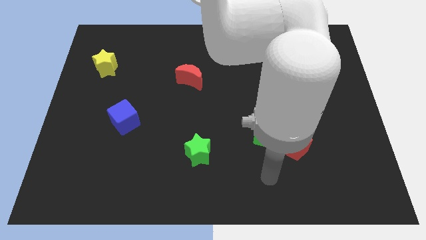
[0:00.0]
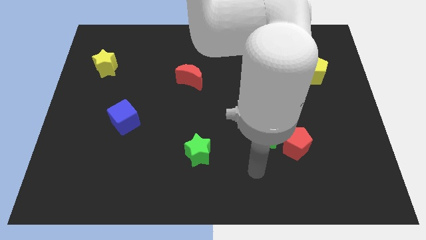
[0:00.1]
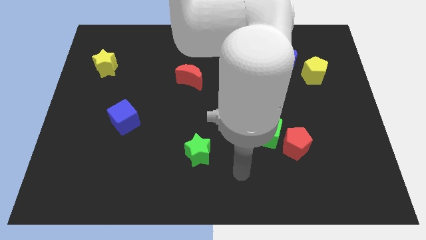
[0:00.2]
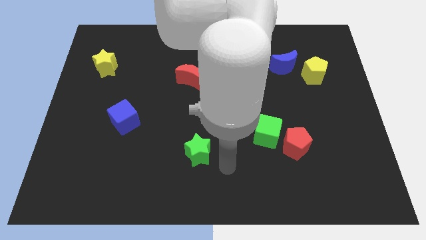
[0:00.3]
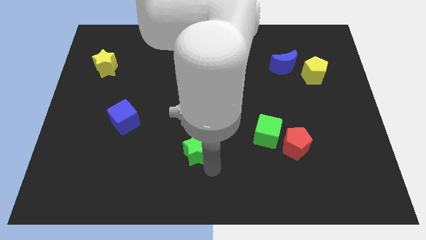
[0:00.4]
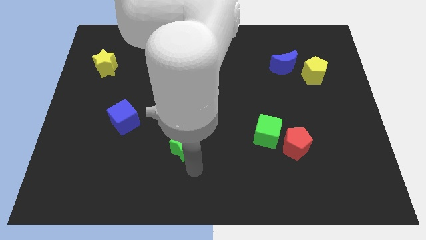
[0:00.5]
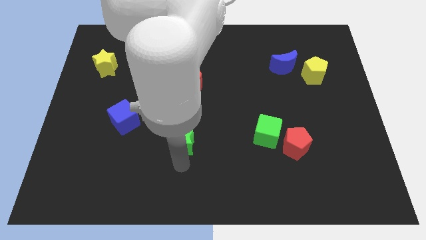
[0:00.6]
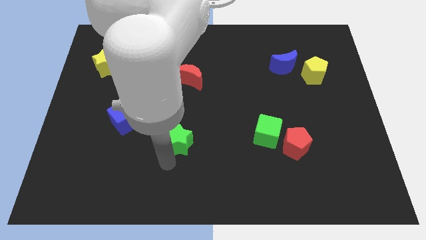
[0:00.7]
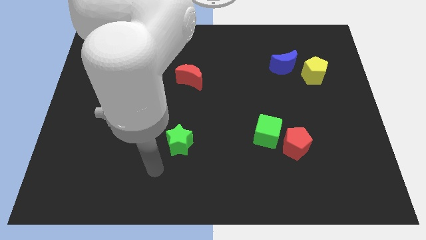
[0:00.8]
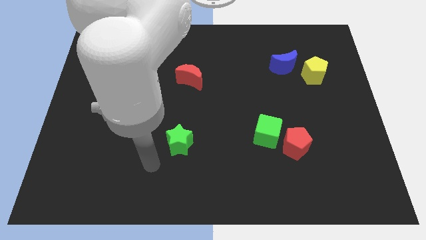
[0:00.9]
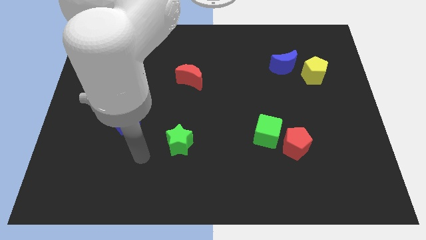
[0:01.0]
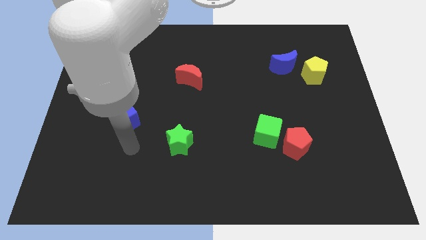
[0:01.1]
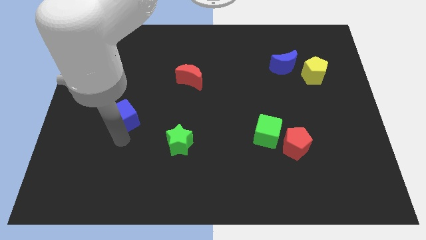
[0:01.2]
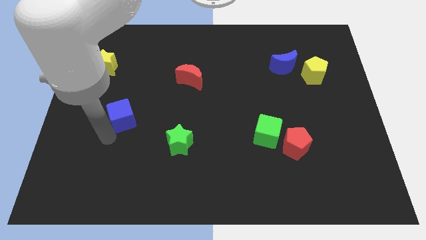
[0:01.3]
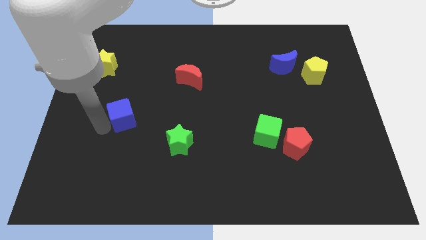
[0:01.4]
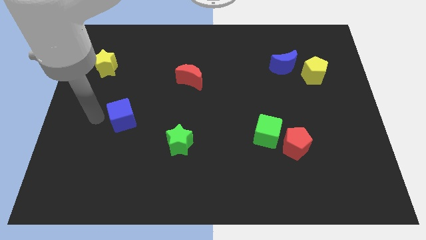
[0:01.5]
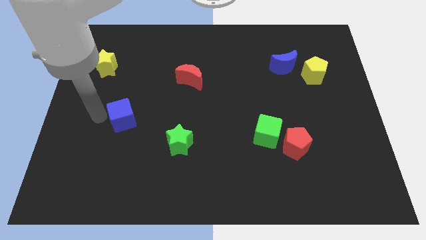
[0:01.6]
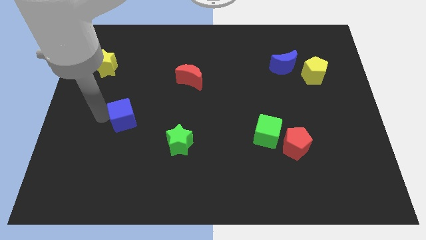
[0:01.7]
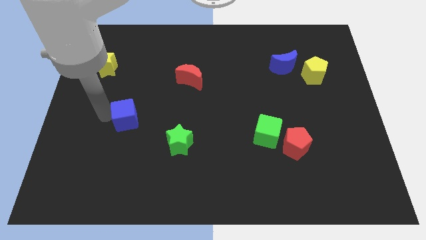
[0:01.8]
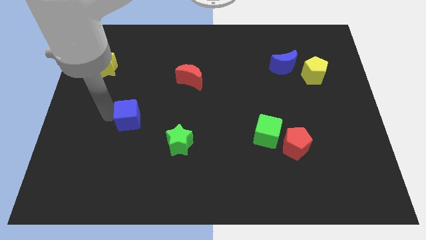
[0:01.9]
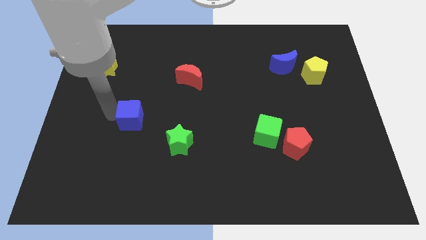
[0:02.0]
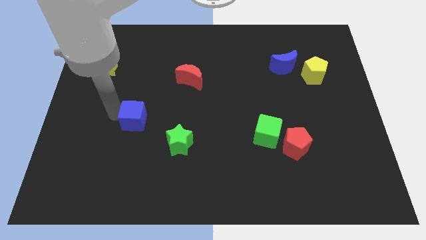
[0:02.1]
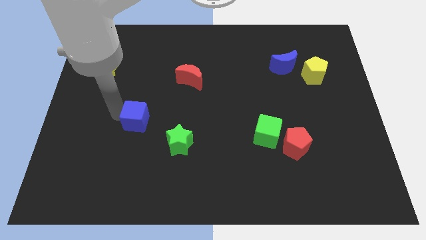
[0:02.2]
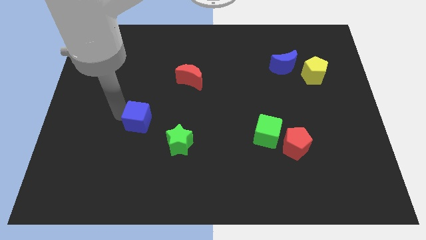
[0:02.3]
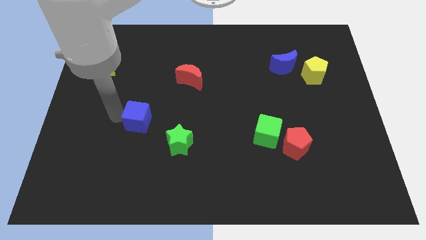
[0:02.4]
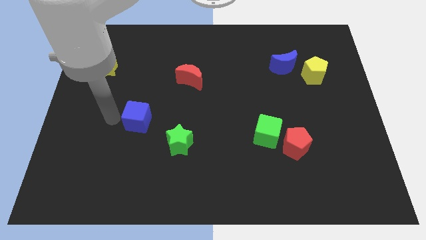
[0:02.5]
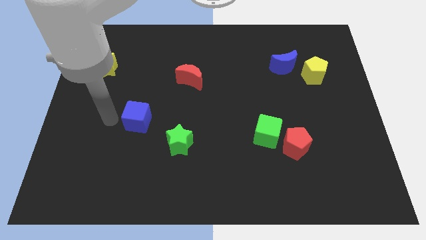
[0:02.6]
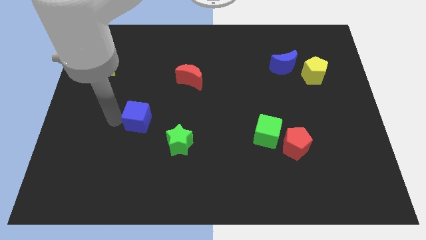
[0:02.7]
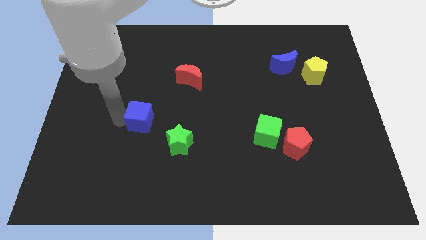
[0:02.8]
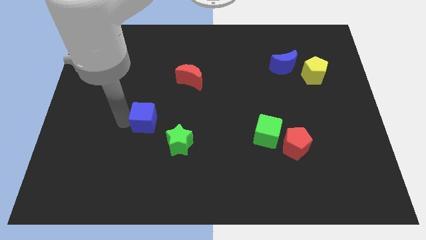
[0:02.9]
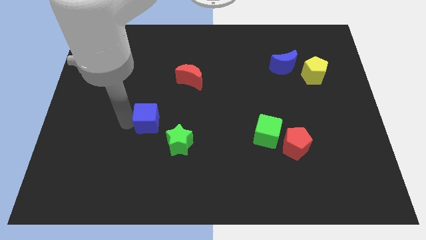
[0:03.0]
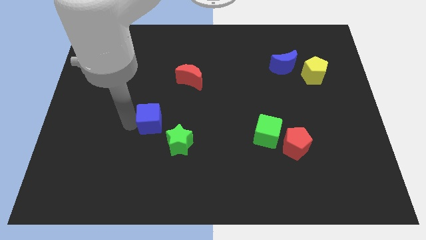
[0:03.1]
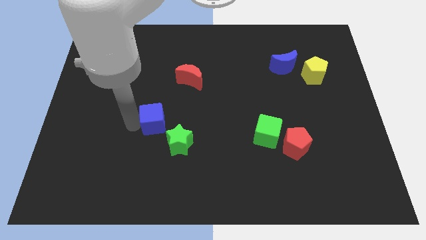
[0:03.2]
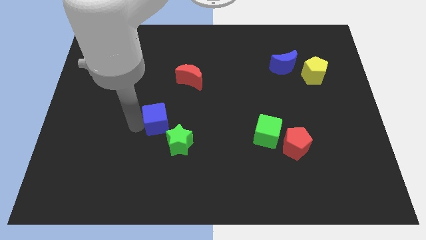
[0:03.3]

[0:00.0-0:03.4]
slide the blue cube somewhat right

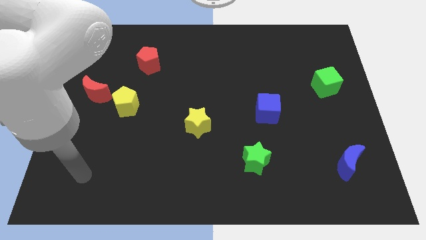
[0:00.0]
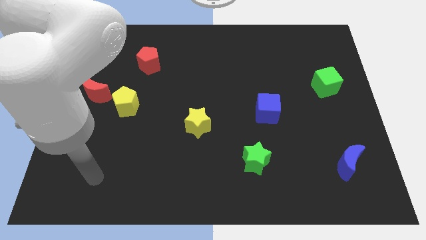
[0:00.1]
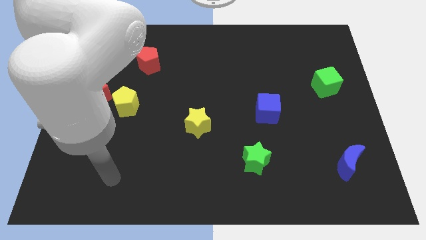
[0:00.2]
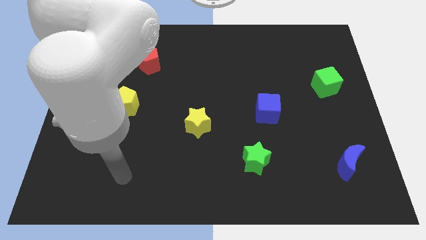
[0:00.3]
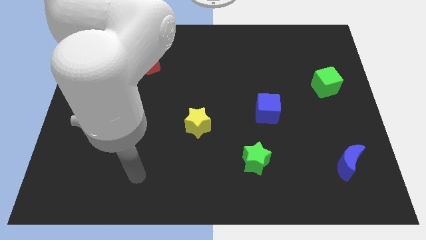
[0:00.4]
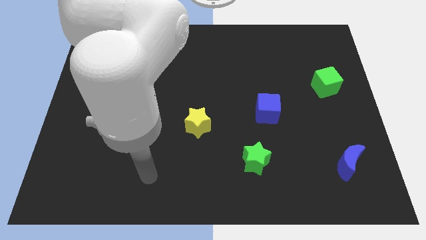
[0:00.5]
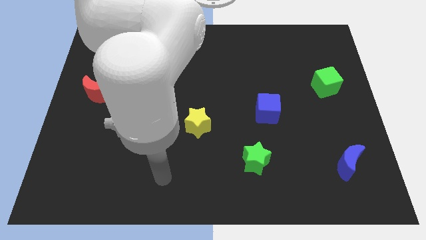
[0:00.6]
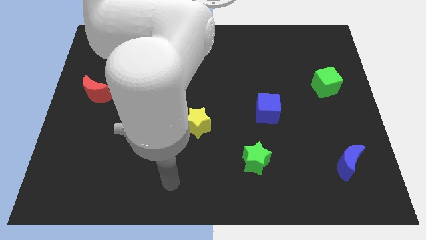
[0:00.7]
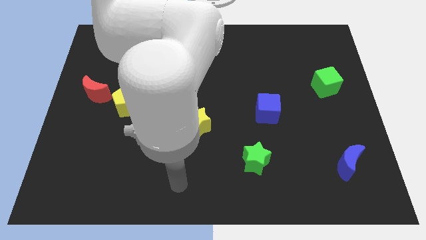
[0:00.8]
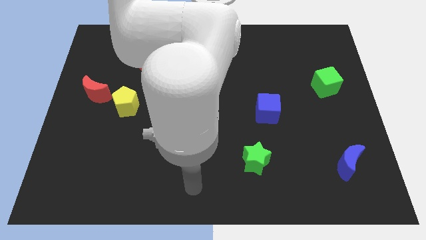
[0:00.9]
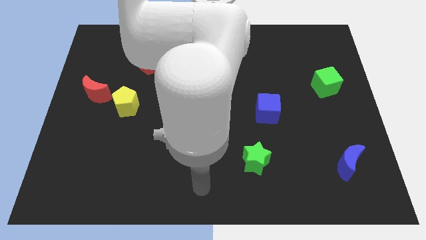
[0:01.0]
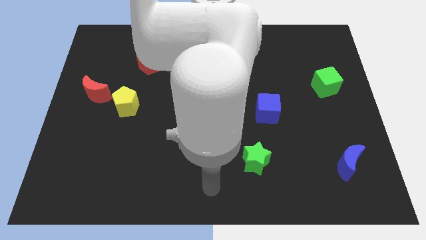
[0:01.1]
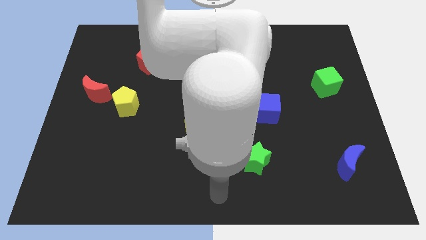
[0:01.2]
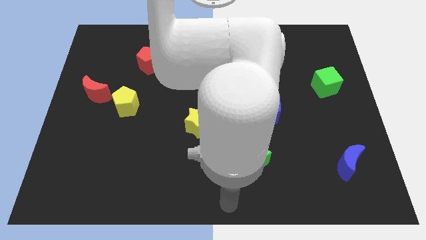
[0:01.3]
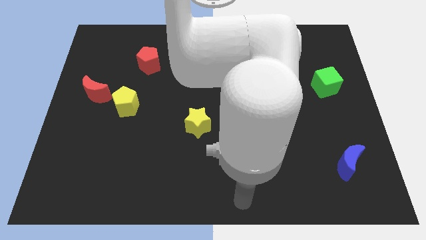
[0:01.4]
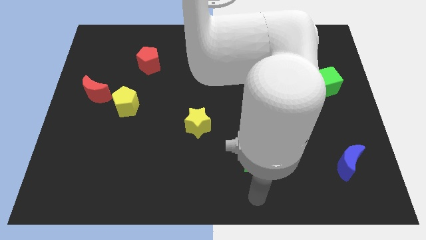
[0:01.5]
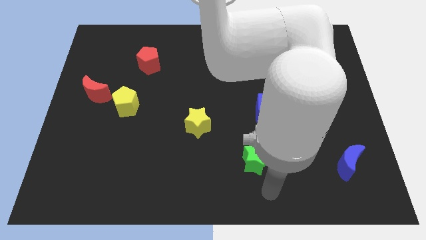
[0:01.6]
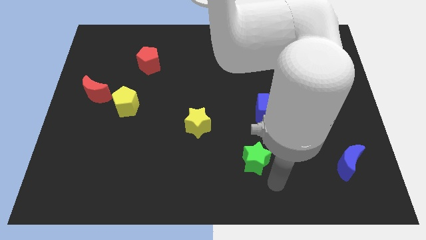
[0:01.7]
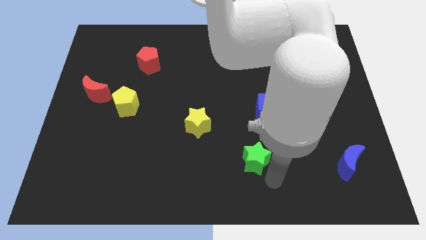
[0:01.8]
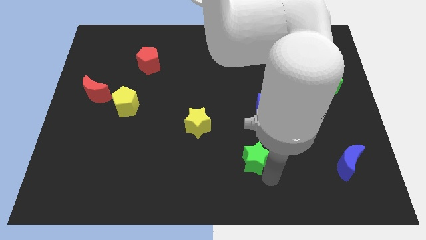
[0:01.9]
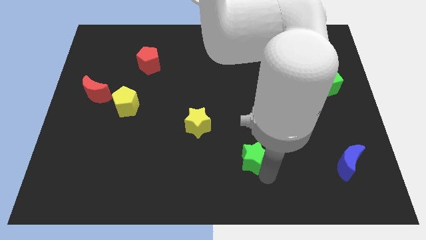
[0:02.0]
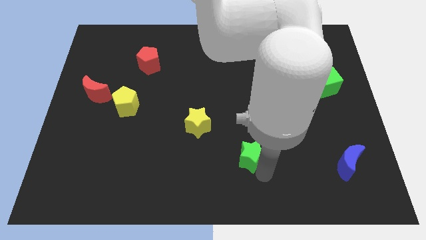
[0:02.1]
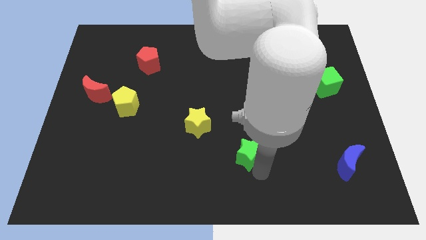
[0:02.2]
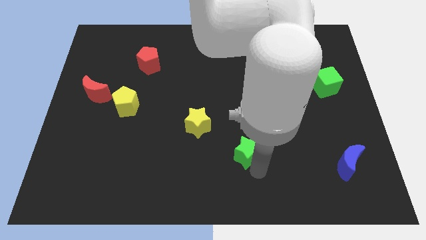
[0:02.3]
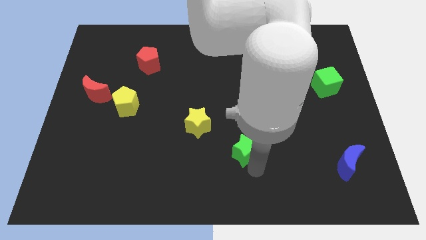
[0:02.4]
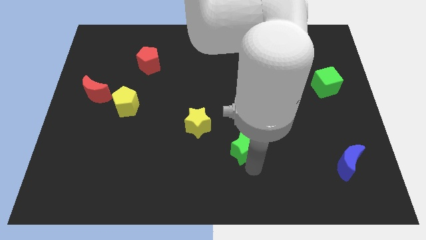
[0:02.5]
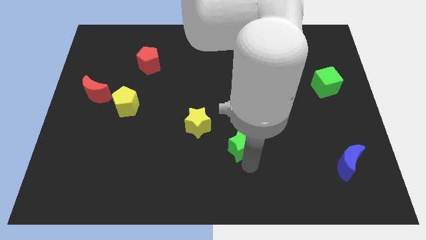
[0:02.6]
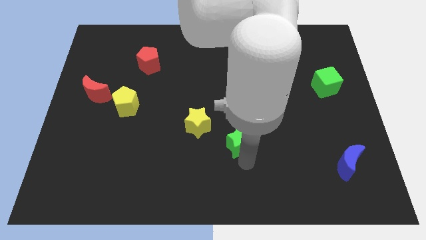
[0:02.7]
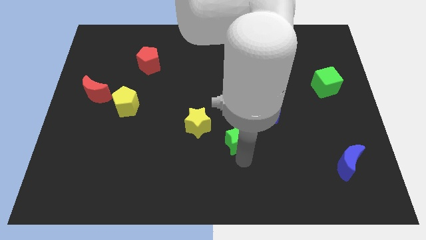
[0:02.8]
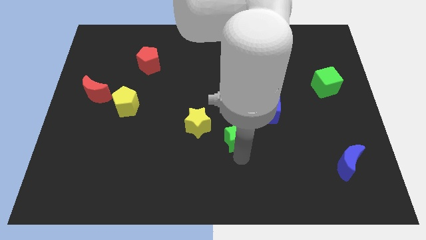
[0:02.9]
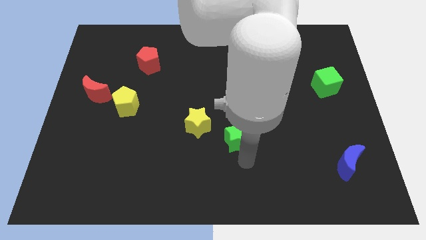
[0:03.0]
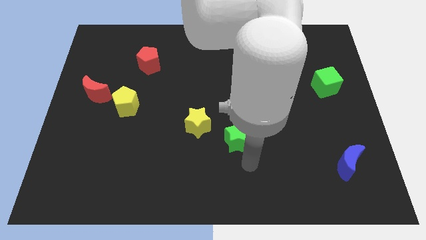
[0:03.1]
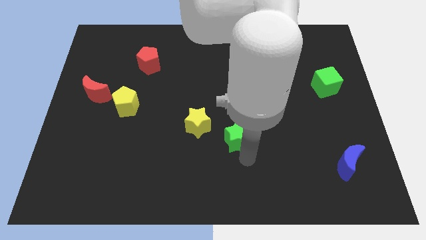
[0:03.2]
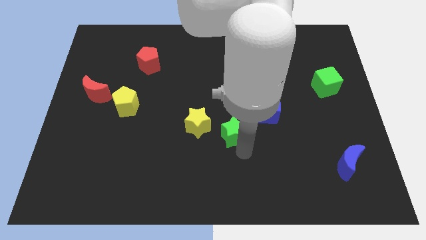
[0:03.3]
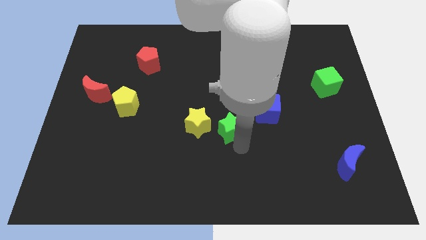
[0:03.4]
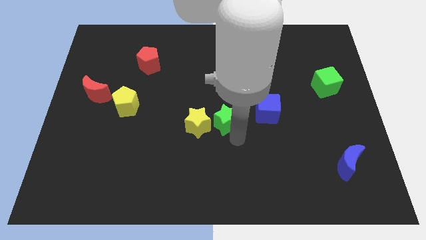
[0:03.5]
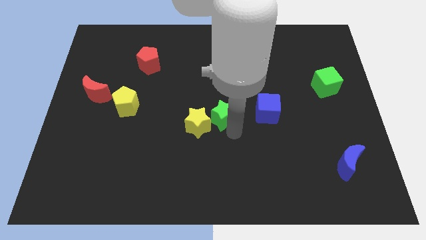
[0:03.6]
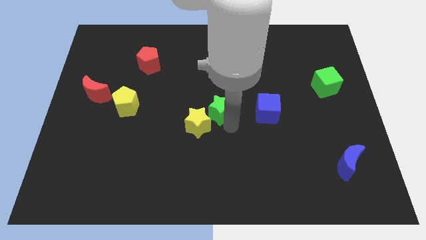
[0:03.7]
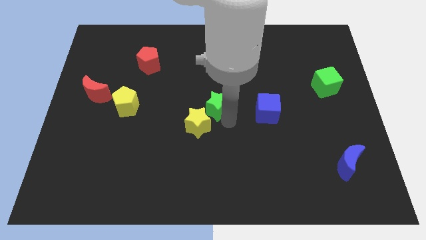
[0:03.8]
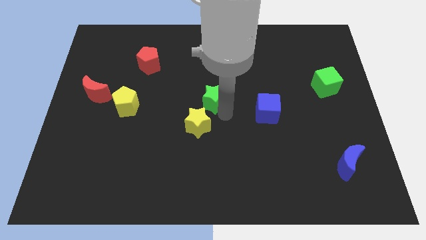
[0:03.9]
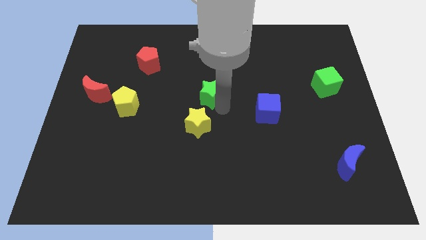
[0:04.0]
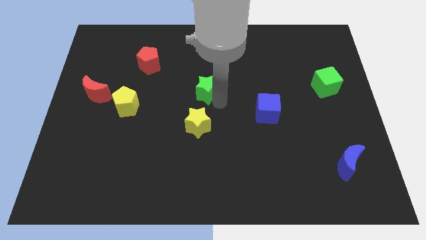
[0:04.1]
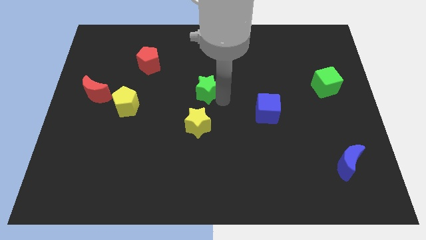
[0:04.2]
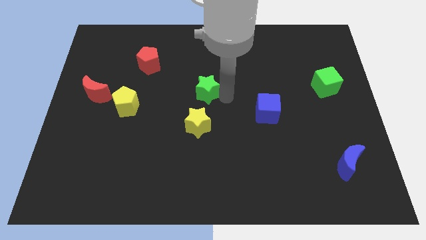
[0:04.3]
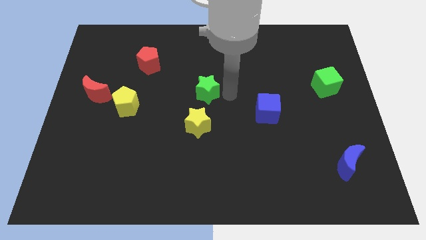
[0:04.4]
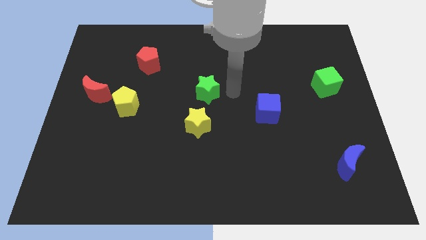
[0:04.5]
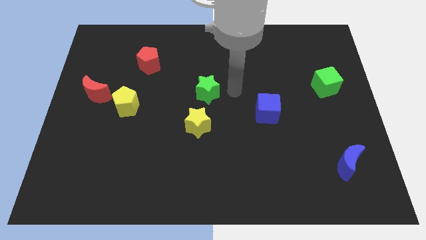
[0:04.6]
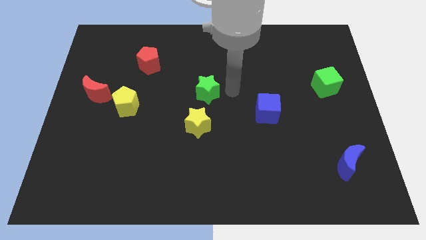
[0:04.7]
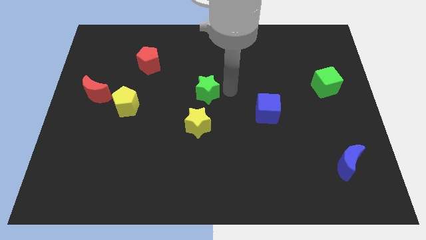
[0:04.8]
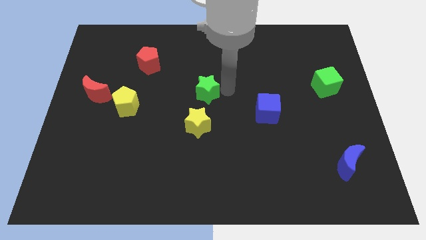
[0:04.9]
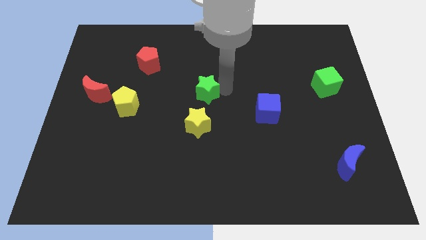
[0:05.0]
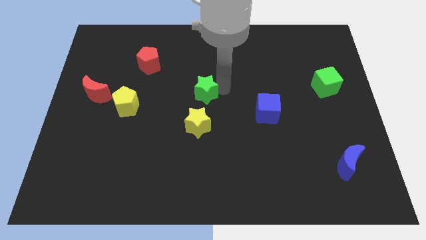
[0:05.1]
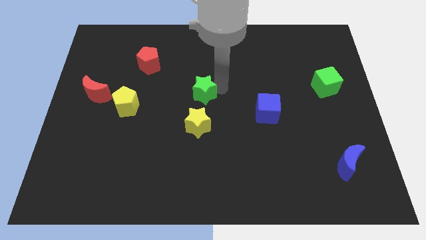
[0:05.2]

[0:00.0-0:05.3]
move the green star up and to the left
